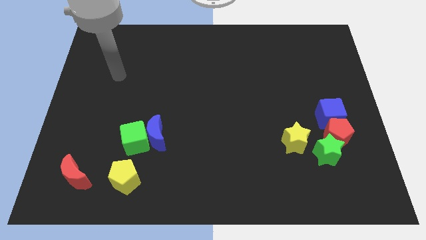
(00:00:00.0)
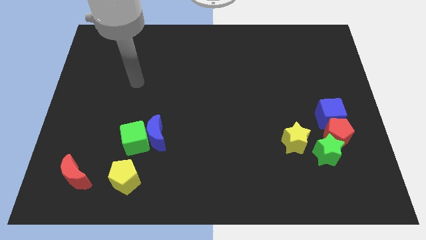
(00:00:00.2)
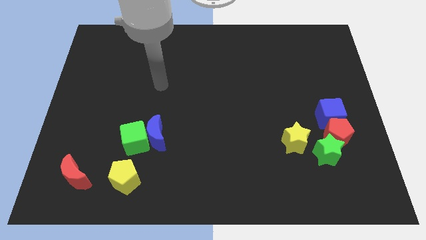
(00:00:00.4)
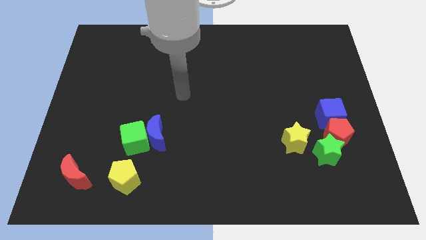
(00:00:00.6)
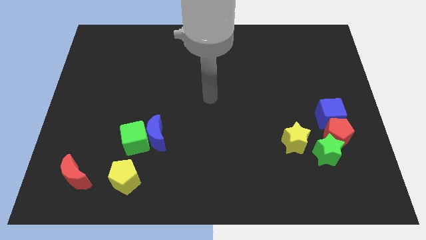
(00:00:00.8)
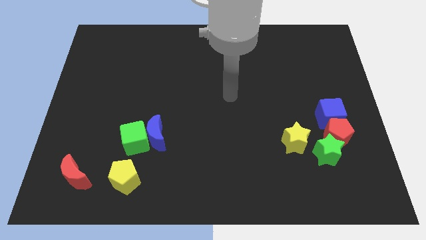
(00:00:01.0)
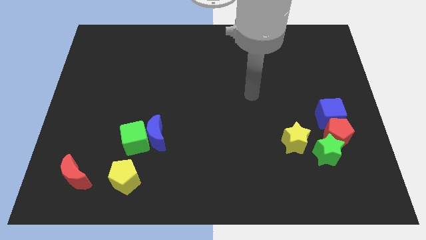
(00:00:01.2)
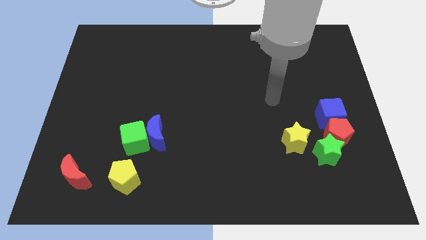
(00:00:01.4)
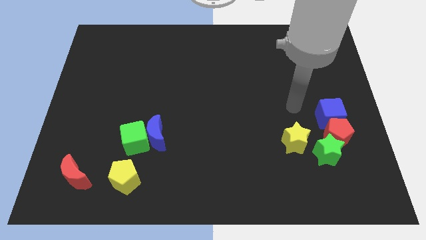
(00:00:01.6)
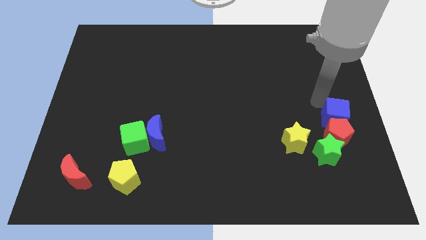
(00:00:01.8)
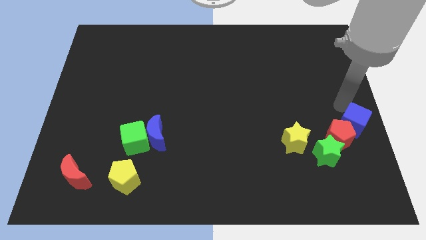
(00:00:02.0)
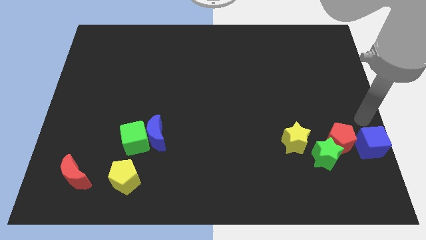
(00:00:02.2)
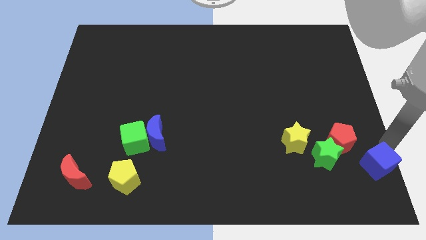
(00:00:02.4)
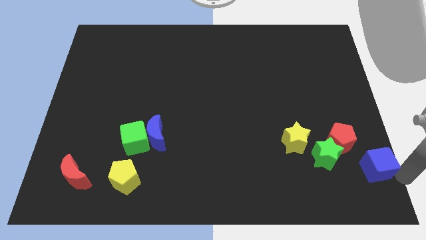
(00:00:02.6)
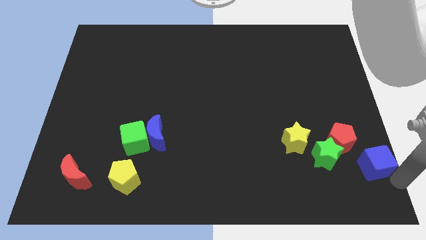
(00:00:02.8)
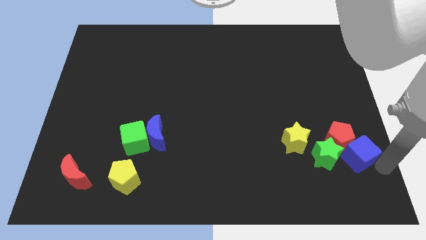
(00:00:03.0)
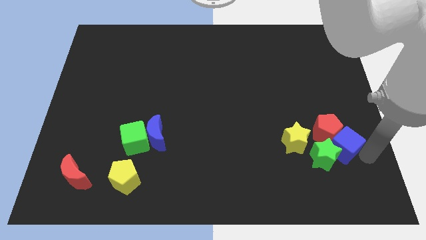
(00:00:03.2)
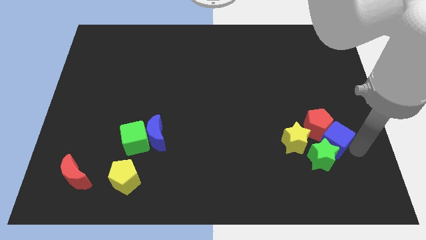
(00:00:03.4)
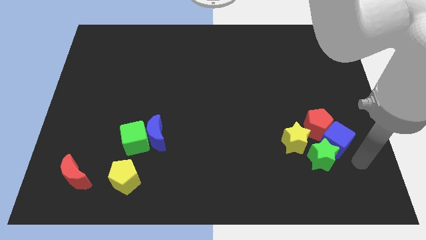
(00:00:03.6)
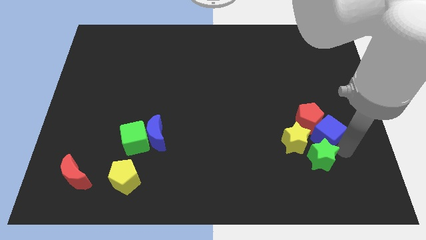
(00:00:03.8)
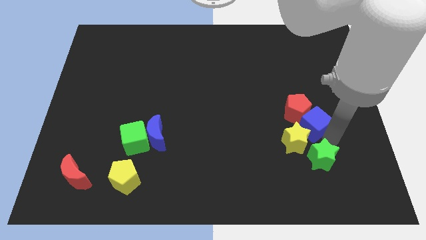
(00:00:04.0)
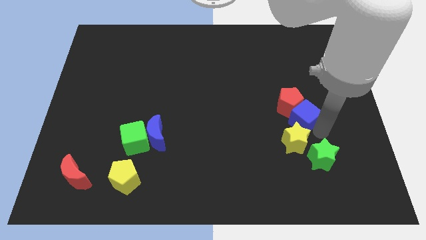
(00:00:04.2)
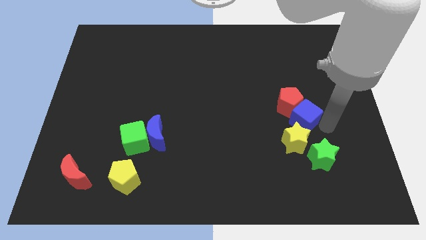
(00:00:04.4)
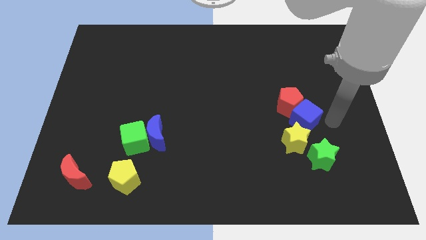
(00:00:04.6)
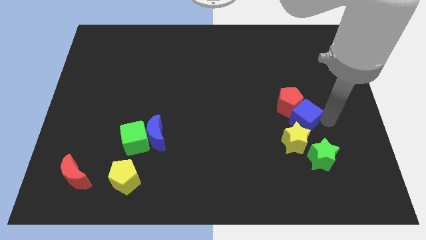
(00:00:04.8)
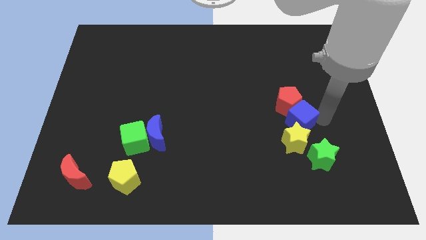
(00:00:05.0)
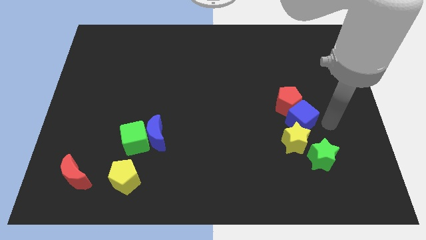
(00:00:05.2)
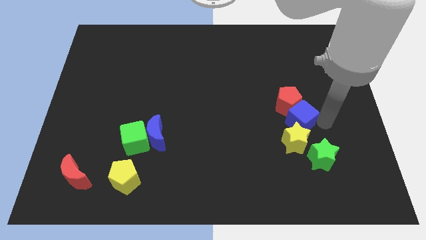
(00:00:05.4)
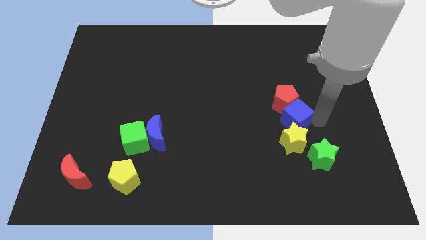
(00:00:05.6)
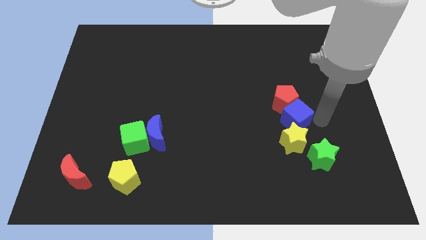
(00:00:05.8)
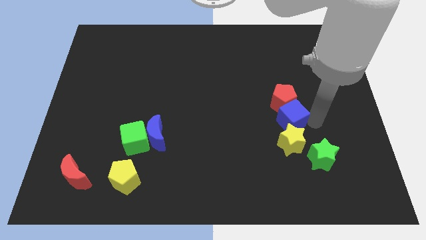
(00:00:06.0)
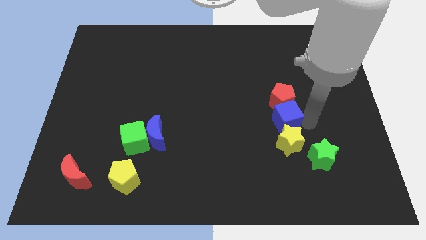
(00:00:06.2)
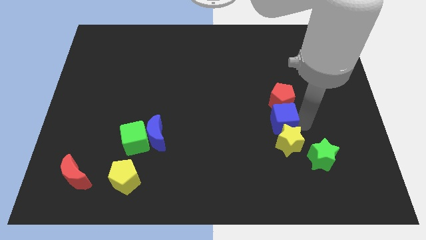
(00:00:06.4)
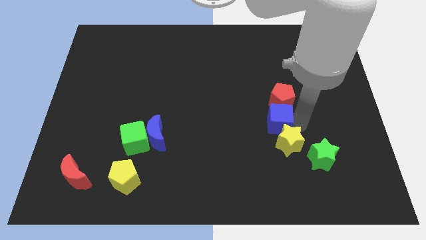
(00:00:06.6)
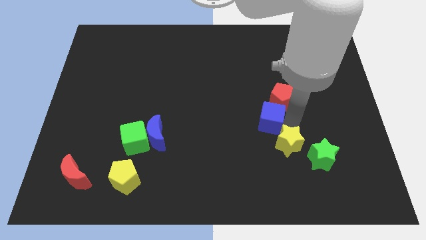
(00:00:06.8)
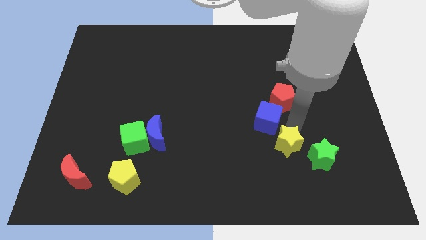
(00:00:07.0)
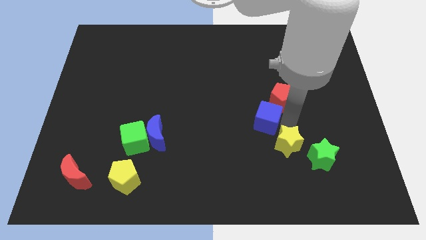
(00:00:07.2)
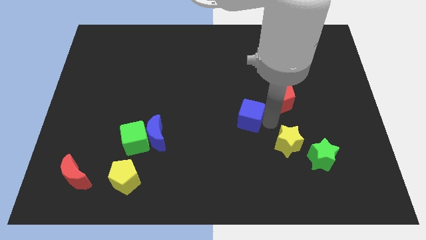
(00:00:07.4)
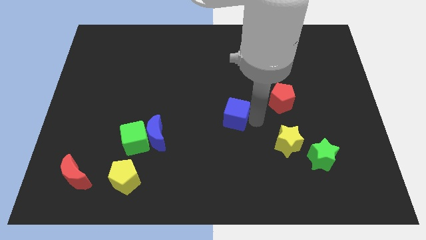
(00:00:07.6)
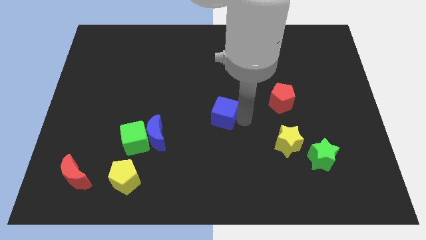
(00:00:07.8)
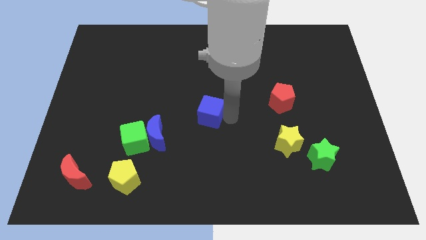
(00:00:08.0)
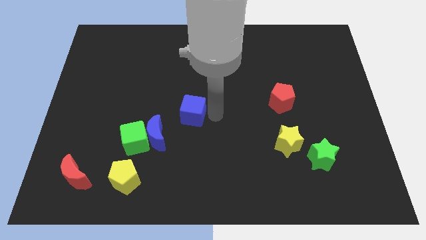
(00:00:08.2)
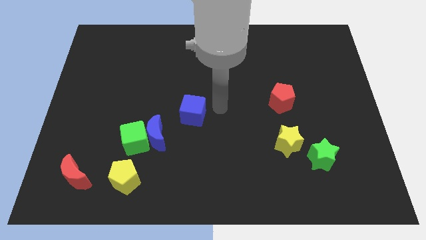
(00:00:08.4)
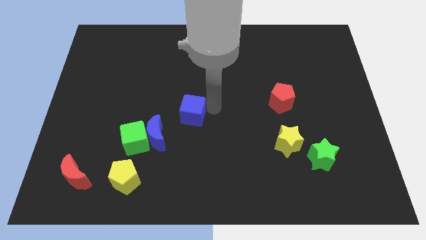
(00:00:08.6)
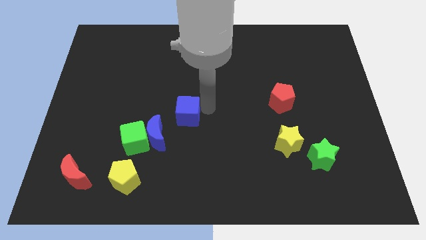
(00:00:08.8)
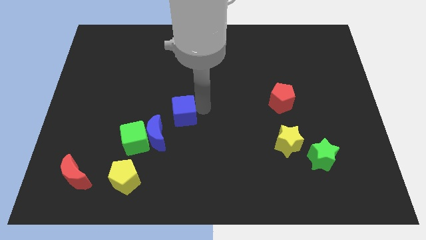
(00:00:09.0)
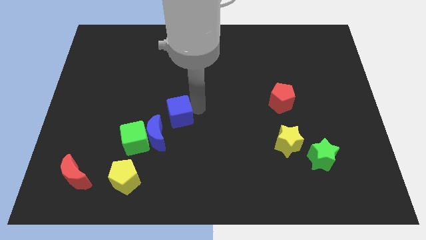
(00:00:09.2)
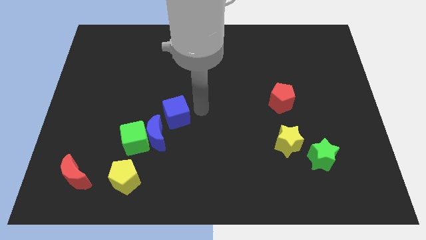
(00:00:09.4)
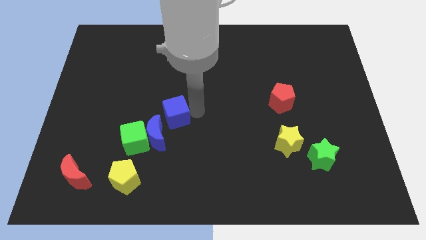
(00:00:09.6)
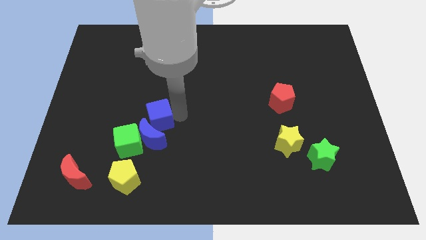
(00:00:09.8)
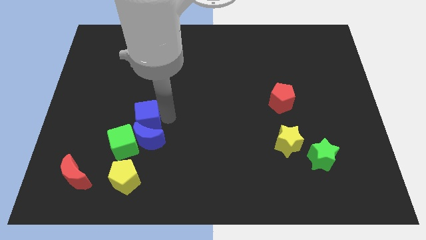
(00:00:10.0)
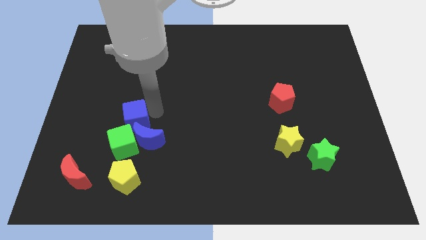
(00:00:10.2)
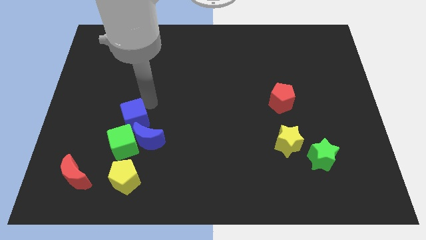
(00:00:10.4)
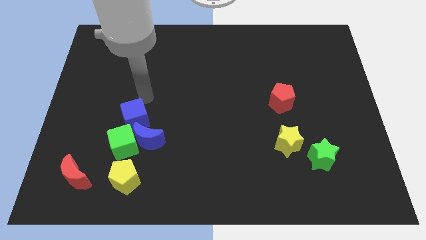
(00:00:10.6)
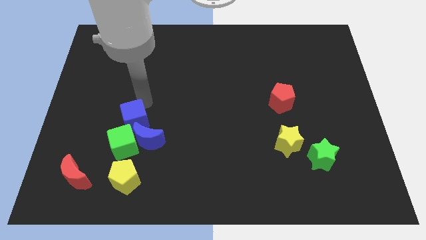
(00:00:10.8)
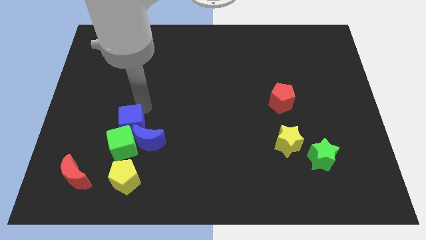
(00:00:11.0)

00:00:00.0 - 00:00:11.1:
push the blue cube towards the green cube

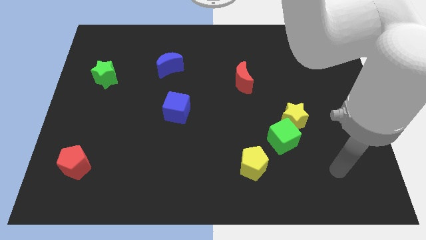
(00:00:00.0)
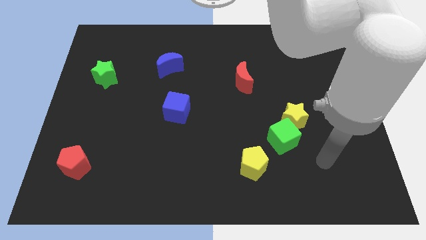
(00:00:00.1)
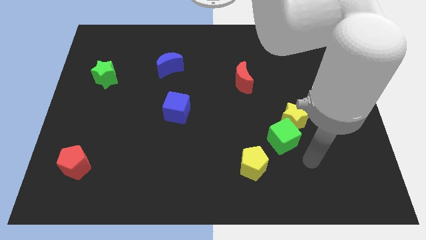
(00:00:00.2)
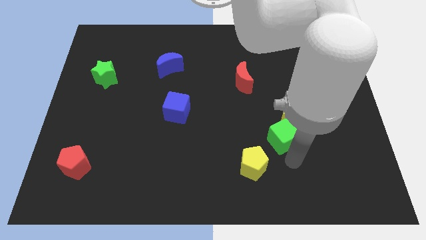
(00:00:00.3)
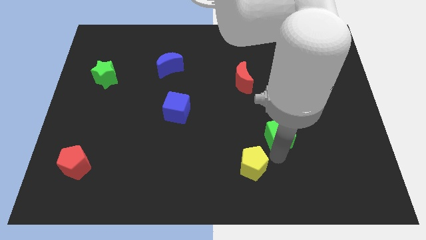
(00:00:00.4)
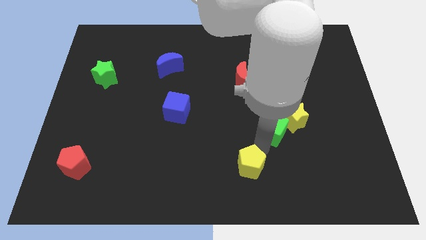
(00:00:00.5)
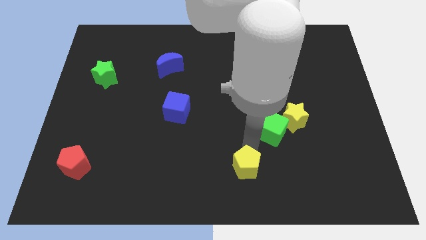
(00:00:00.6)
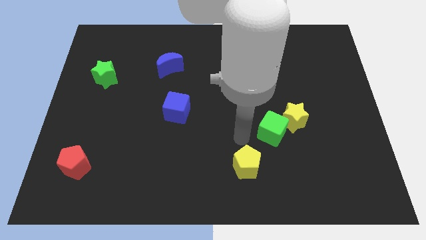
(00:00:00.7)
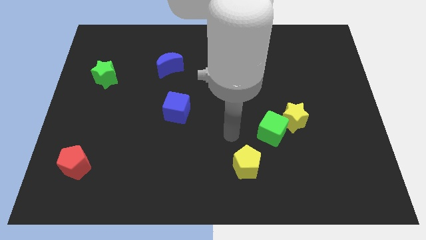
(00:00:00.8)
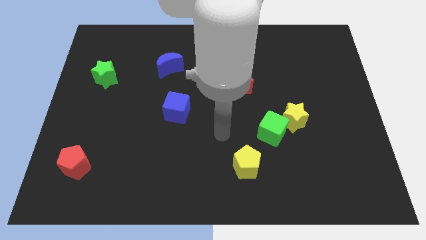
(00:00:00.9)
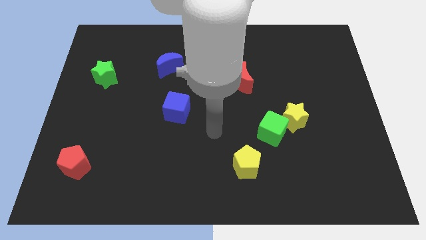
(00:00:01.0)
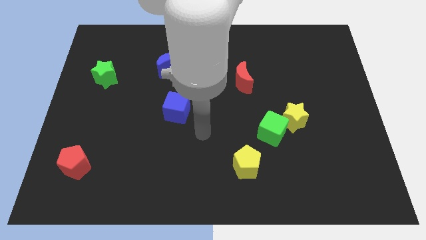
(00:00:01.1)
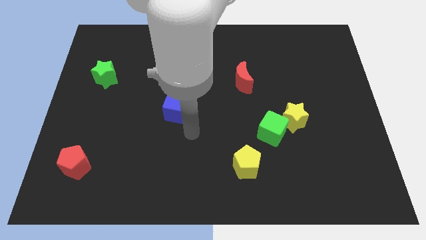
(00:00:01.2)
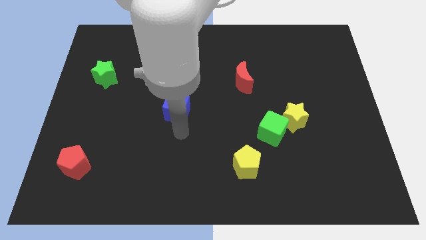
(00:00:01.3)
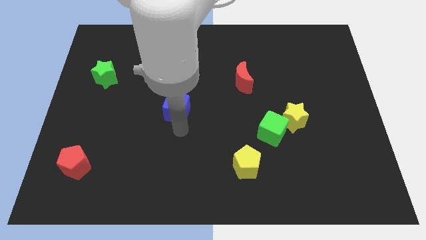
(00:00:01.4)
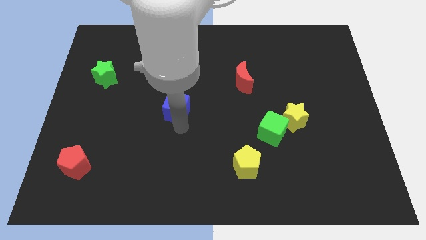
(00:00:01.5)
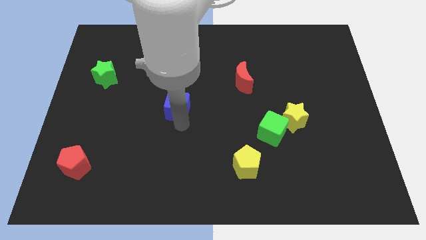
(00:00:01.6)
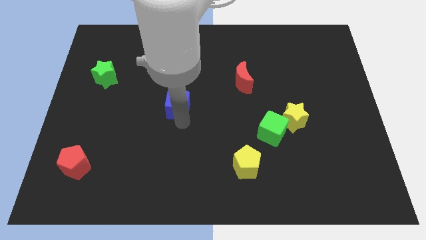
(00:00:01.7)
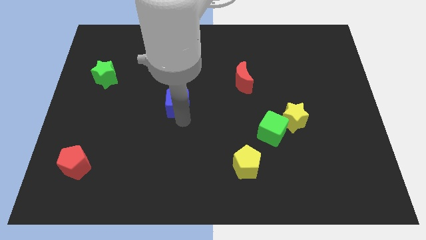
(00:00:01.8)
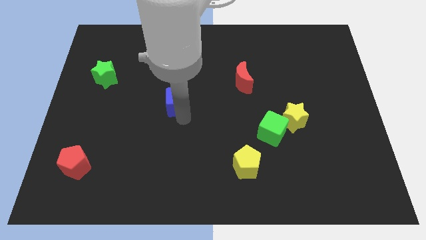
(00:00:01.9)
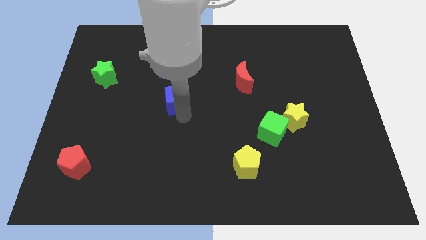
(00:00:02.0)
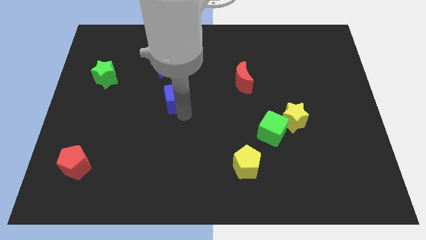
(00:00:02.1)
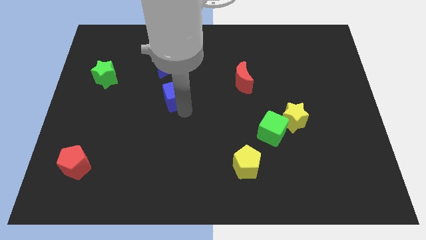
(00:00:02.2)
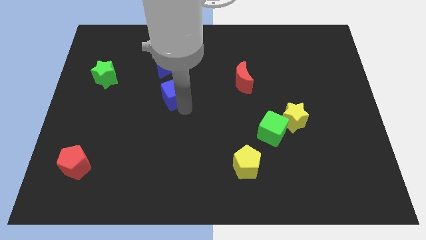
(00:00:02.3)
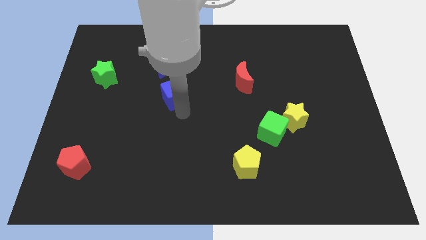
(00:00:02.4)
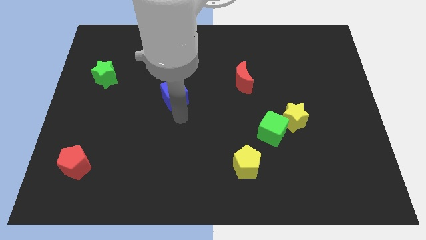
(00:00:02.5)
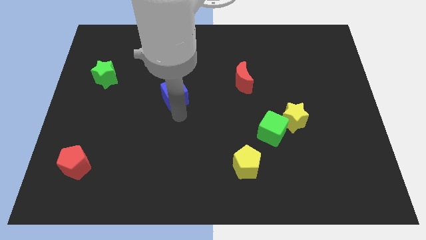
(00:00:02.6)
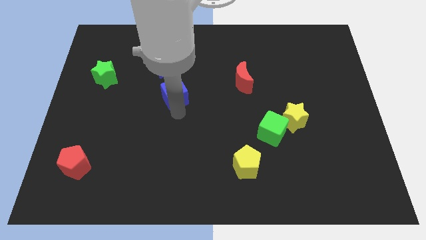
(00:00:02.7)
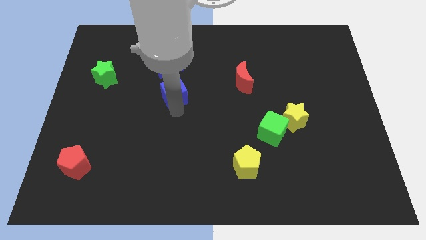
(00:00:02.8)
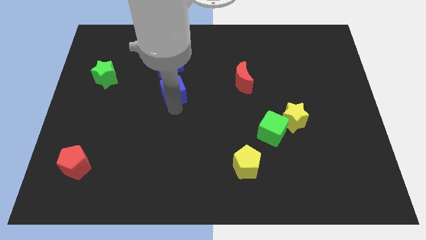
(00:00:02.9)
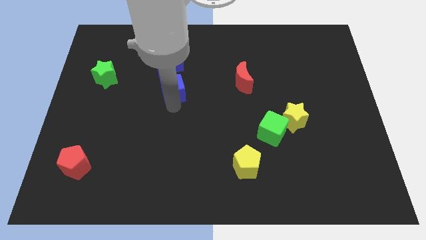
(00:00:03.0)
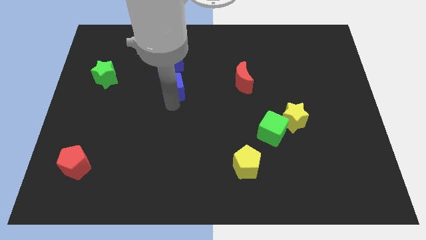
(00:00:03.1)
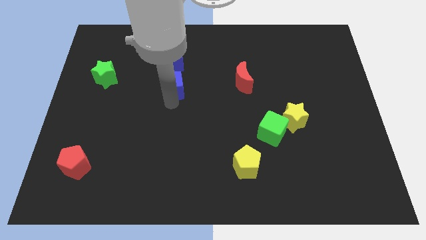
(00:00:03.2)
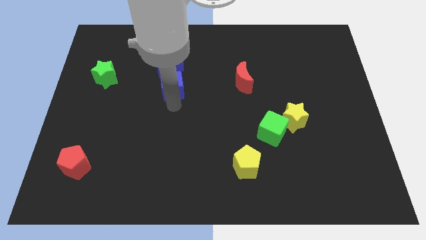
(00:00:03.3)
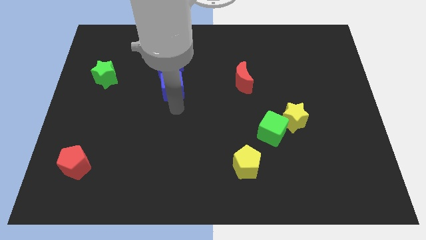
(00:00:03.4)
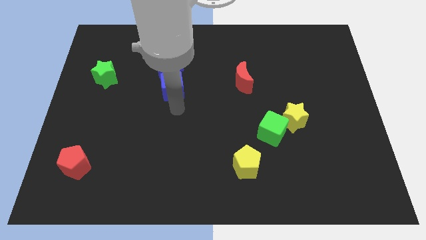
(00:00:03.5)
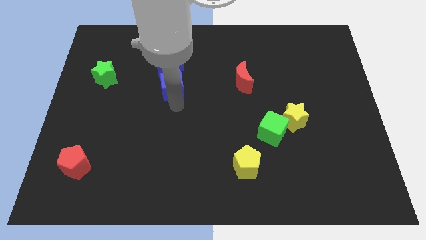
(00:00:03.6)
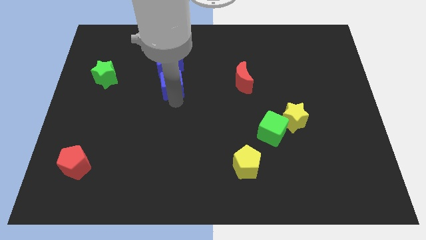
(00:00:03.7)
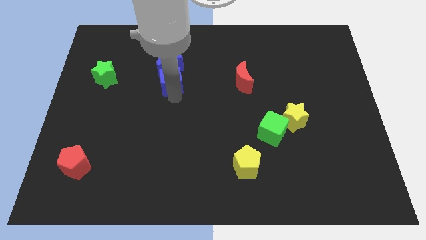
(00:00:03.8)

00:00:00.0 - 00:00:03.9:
move the blue cube close to the blue moon
